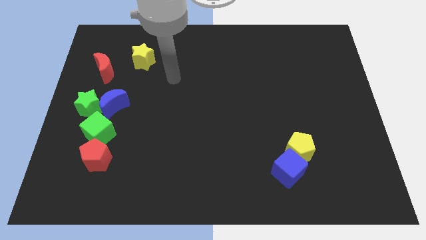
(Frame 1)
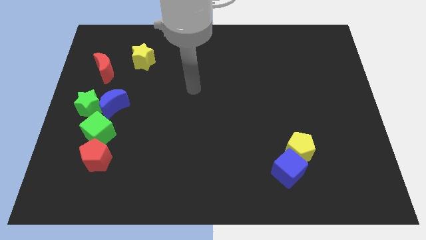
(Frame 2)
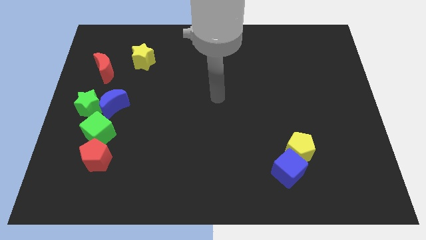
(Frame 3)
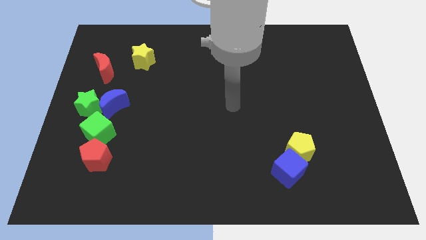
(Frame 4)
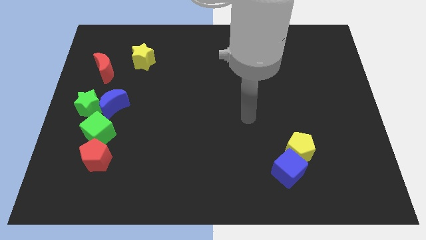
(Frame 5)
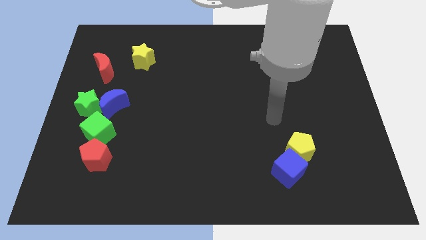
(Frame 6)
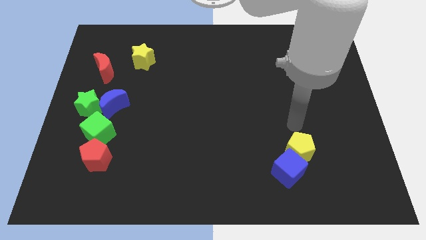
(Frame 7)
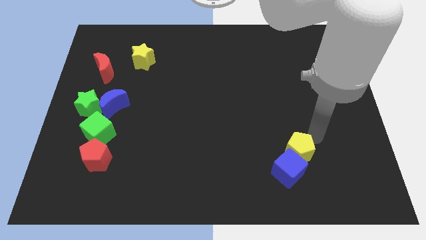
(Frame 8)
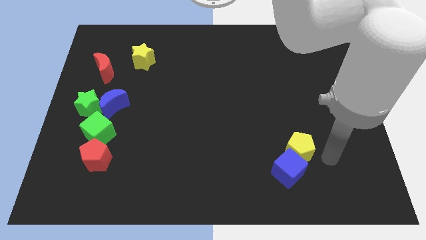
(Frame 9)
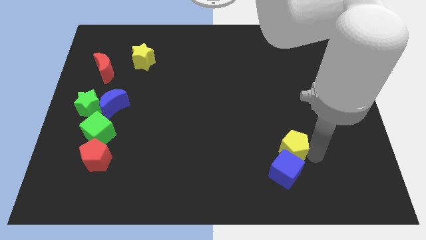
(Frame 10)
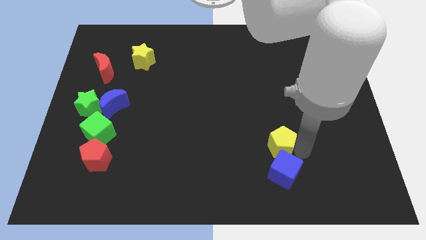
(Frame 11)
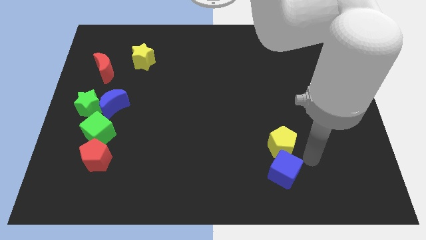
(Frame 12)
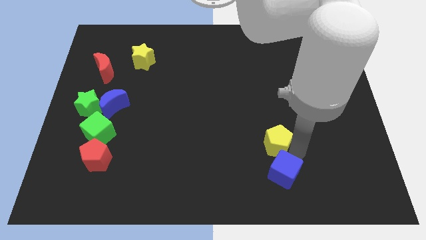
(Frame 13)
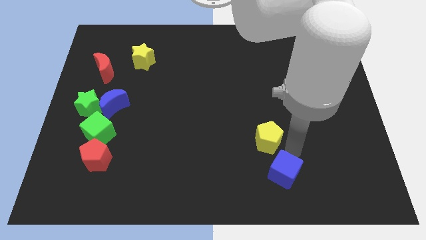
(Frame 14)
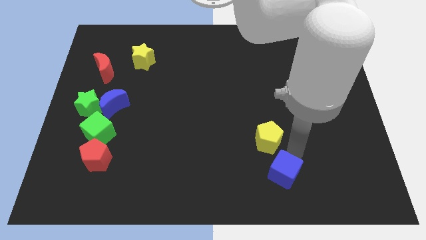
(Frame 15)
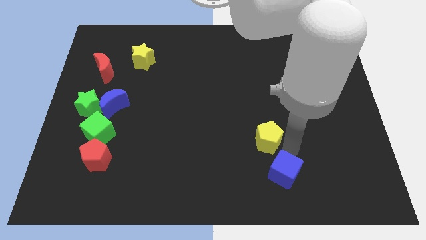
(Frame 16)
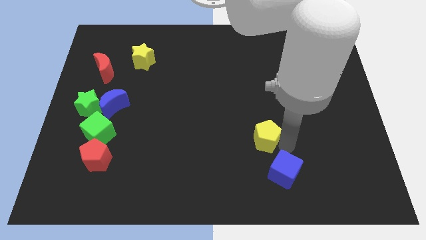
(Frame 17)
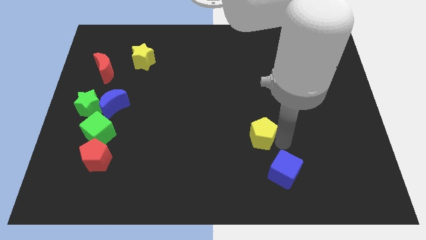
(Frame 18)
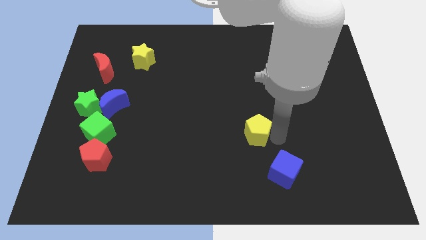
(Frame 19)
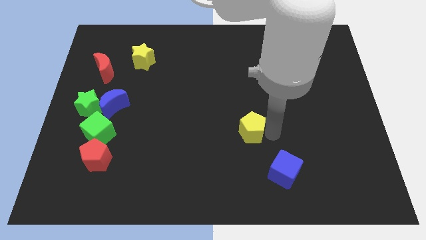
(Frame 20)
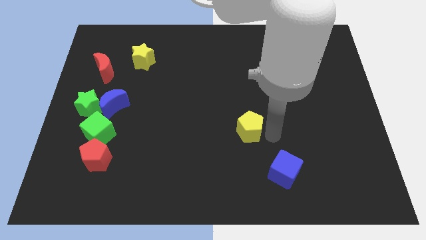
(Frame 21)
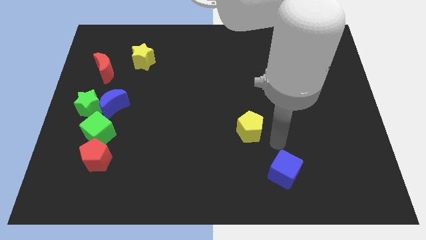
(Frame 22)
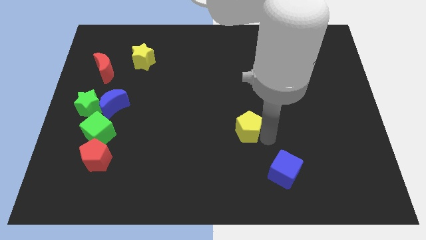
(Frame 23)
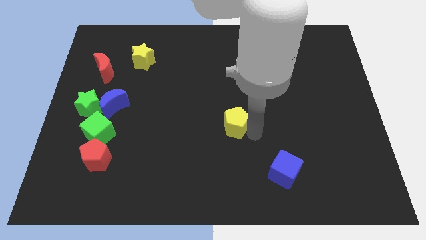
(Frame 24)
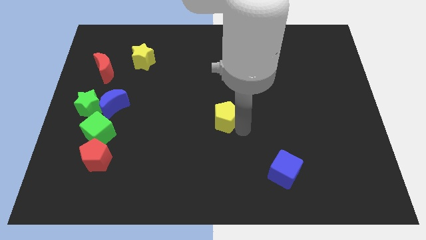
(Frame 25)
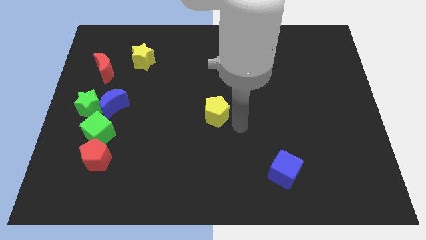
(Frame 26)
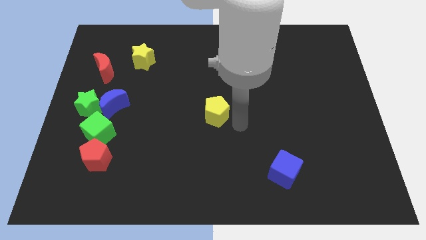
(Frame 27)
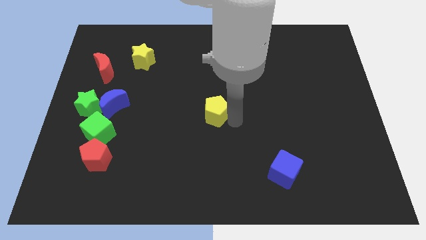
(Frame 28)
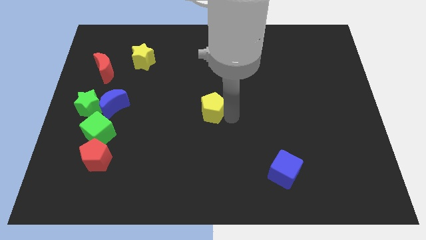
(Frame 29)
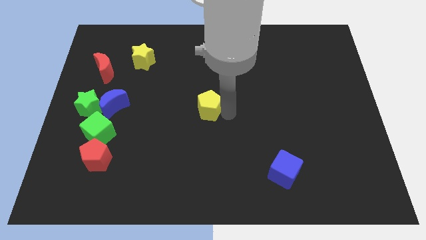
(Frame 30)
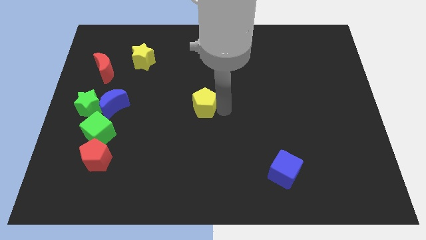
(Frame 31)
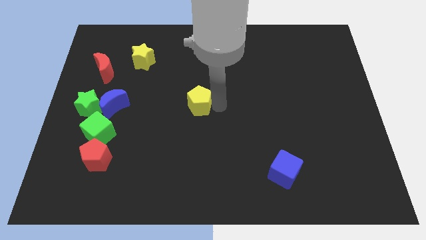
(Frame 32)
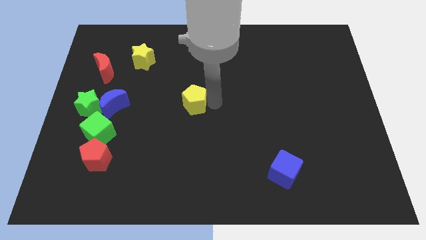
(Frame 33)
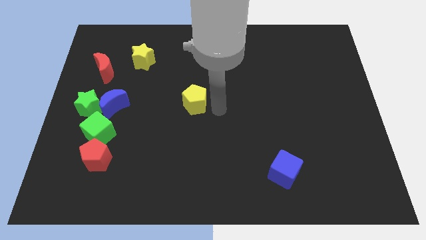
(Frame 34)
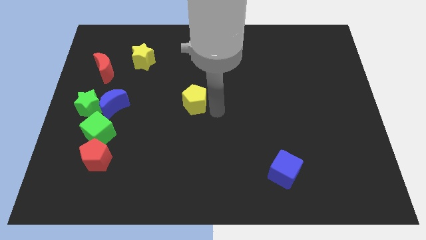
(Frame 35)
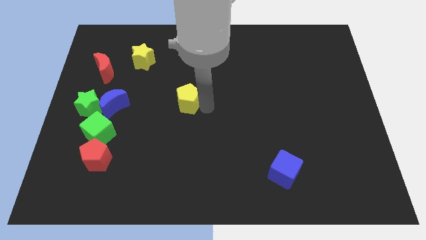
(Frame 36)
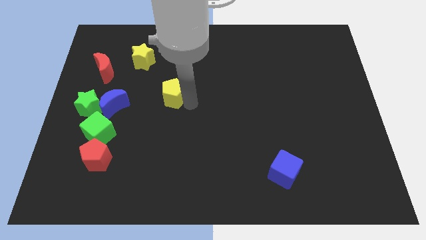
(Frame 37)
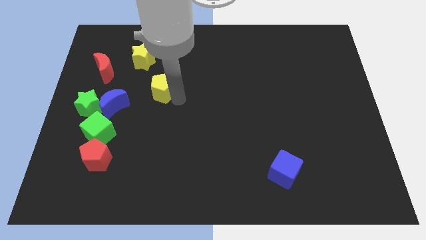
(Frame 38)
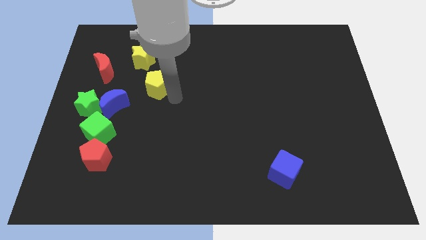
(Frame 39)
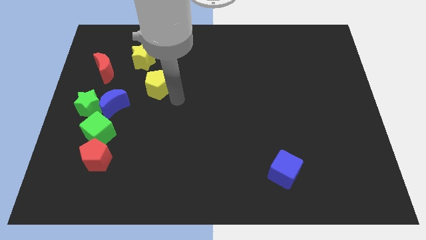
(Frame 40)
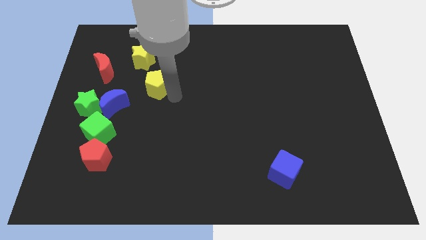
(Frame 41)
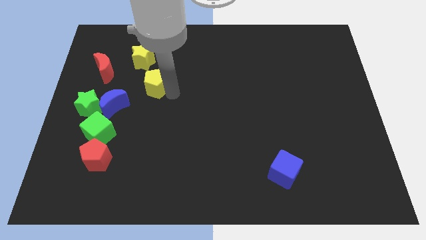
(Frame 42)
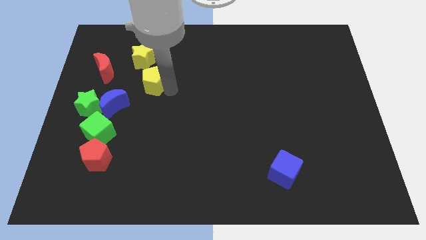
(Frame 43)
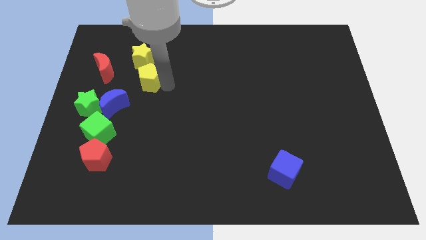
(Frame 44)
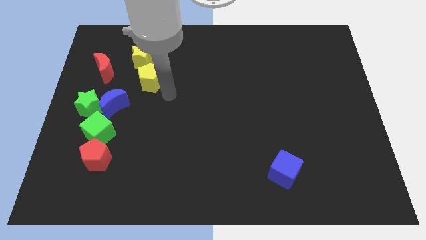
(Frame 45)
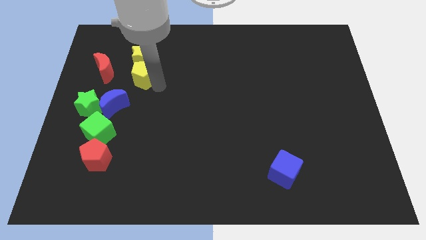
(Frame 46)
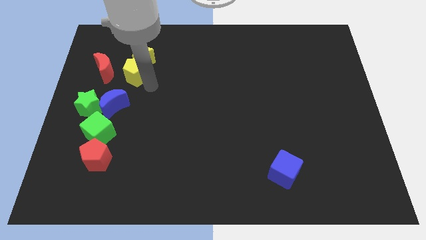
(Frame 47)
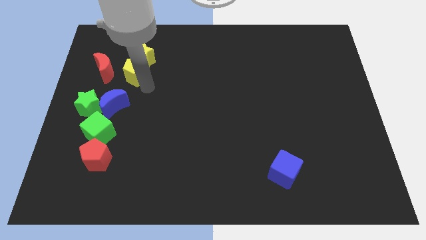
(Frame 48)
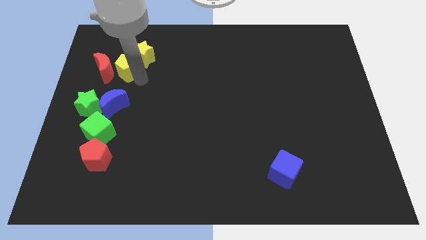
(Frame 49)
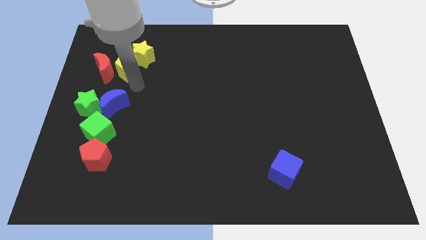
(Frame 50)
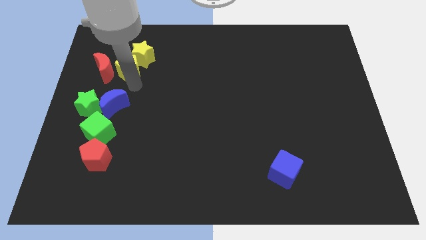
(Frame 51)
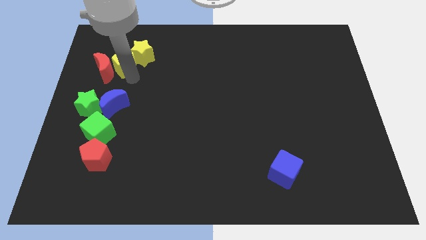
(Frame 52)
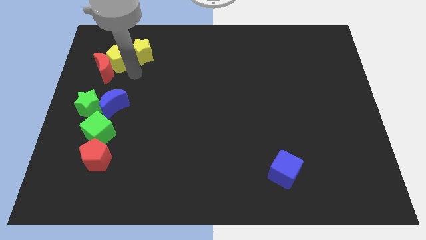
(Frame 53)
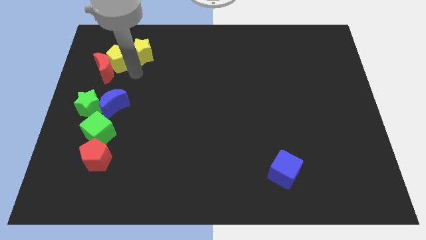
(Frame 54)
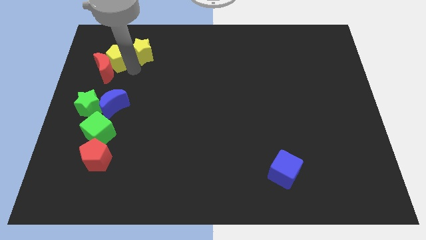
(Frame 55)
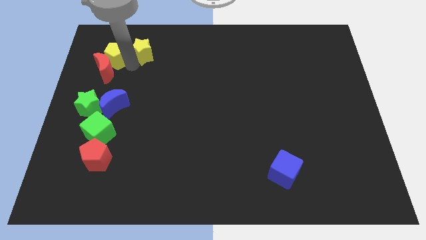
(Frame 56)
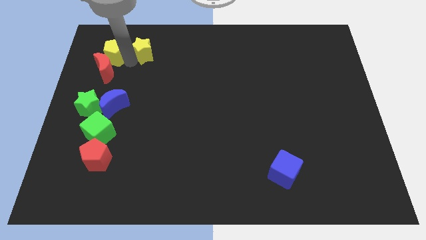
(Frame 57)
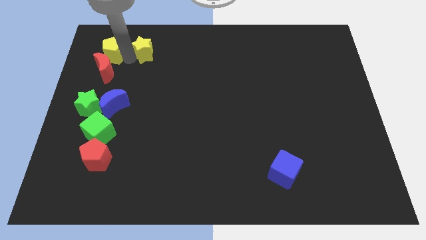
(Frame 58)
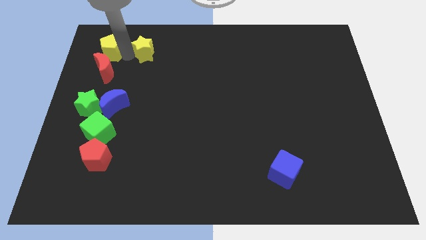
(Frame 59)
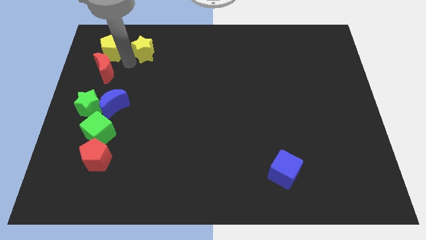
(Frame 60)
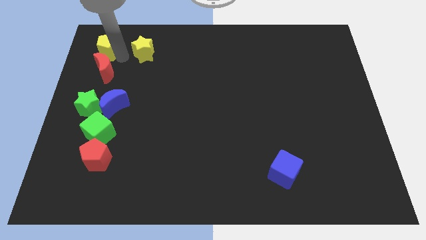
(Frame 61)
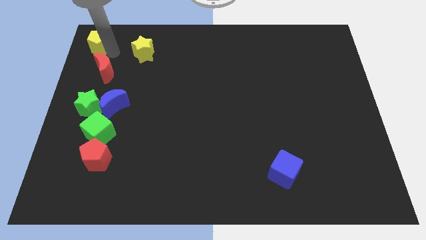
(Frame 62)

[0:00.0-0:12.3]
push the yellow pentagon to the top left

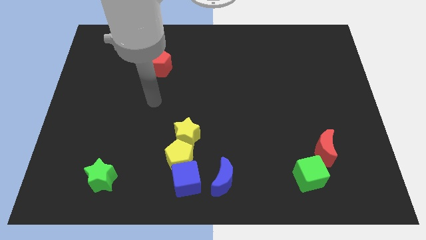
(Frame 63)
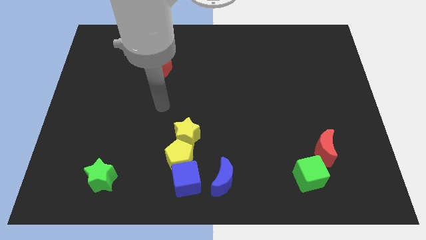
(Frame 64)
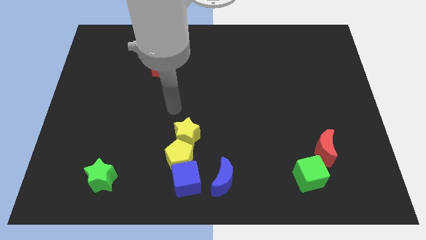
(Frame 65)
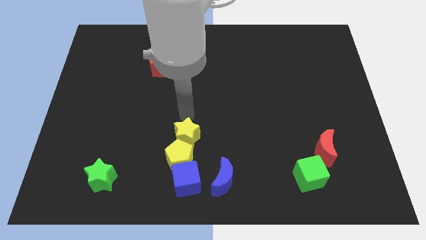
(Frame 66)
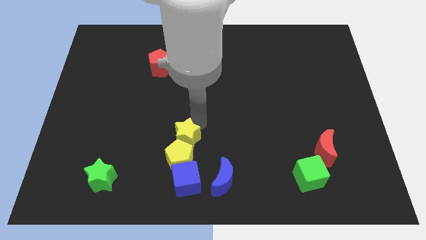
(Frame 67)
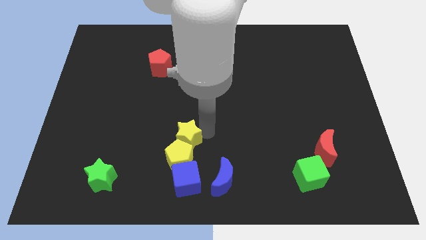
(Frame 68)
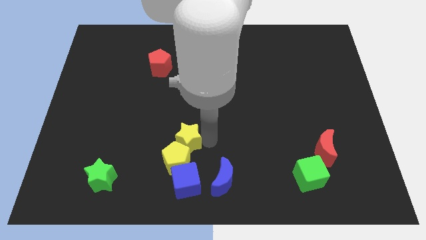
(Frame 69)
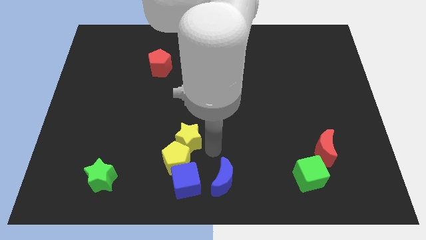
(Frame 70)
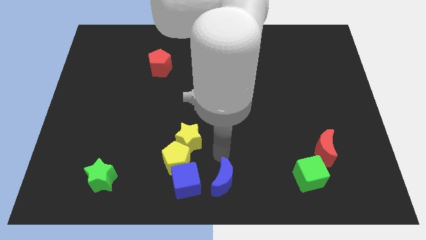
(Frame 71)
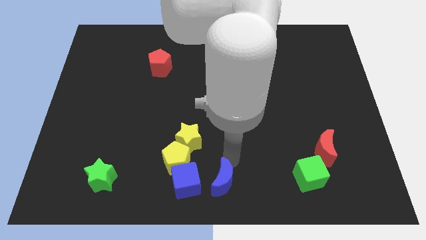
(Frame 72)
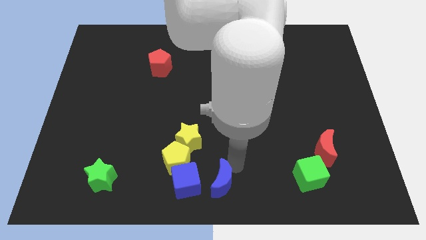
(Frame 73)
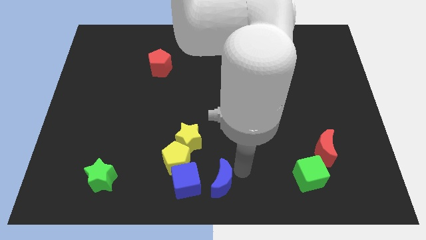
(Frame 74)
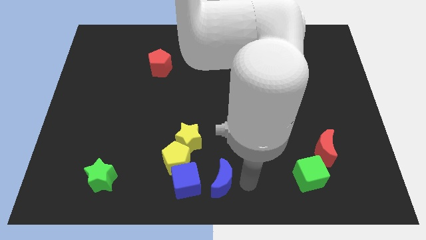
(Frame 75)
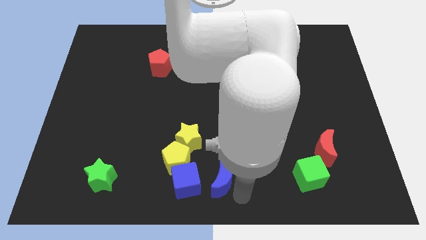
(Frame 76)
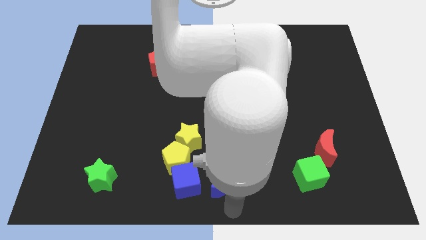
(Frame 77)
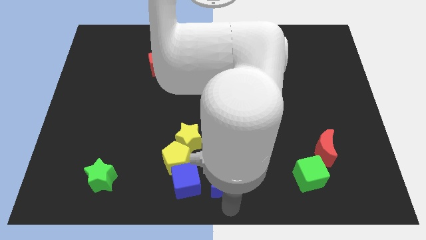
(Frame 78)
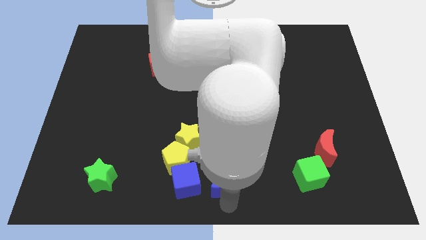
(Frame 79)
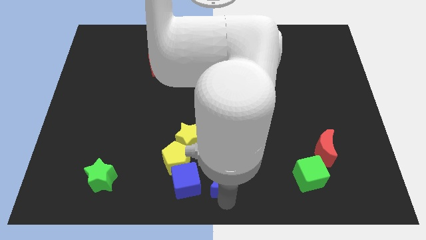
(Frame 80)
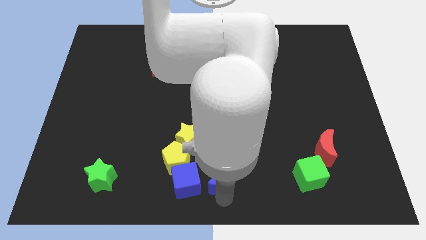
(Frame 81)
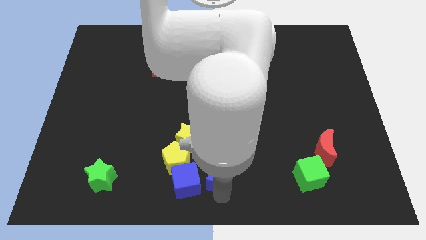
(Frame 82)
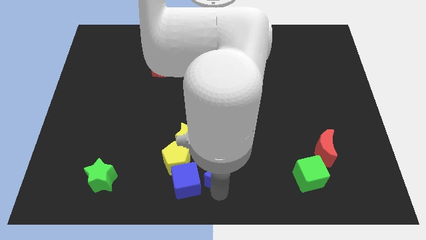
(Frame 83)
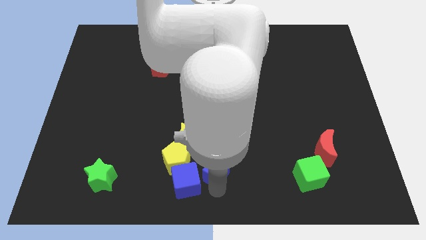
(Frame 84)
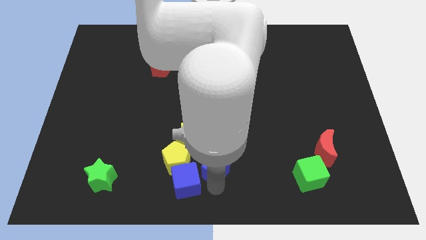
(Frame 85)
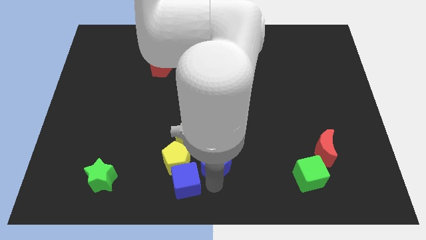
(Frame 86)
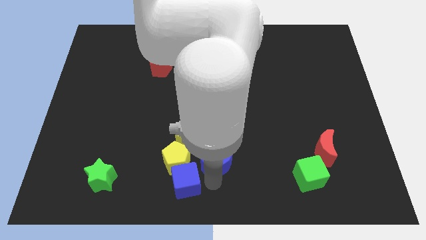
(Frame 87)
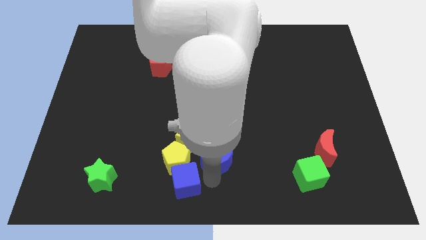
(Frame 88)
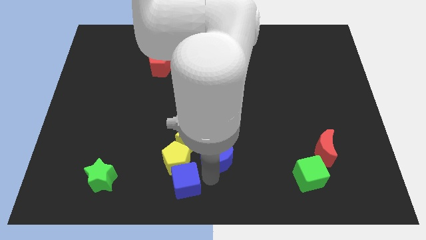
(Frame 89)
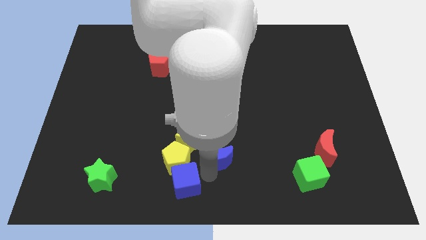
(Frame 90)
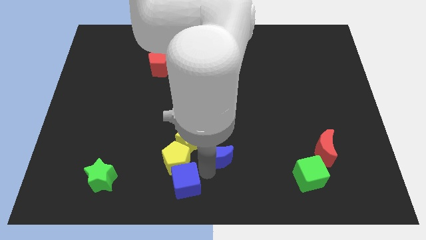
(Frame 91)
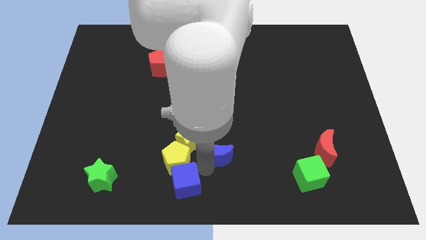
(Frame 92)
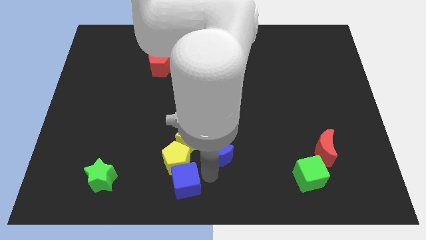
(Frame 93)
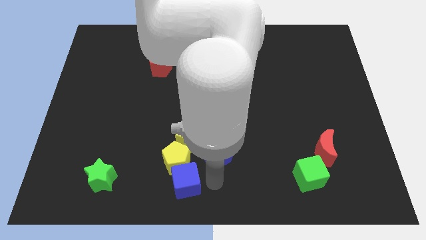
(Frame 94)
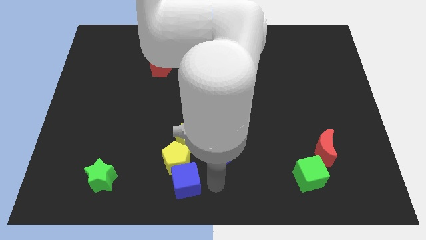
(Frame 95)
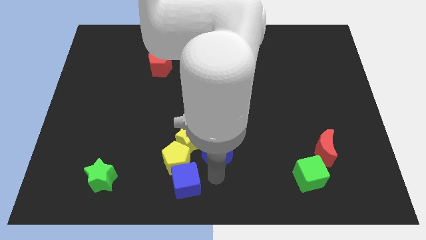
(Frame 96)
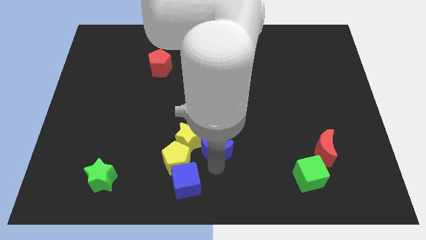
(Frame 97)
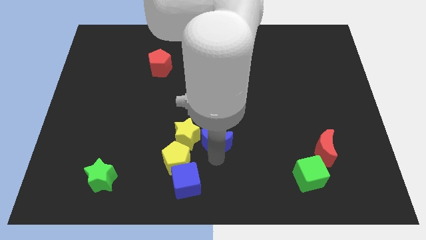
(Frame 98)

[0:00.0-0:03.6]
move the blue moon to the middle of the board
